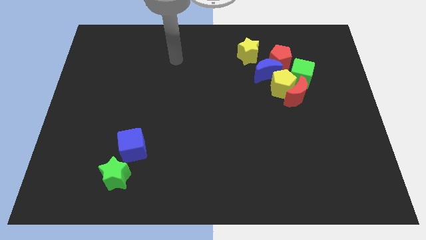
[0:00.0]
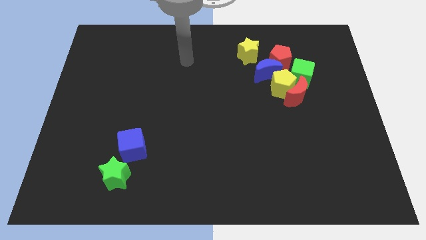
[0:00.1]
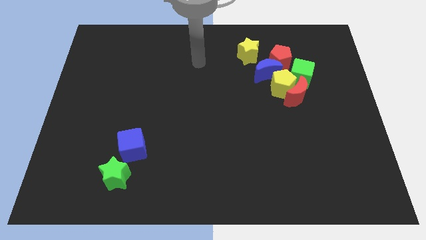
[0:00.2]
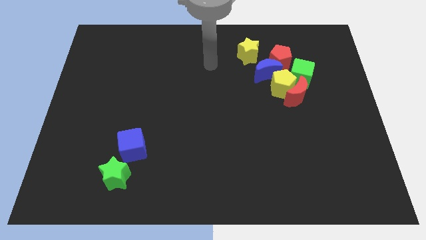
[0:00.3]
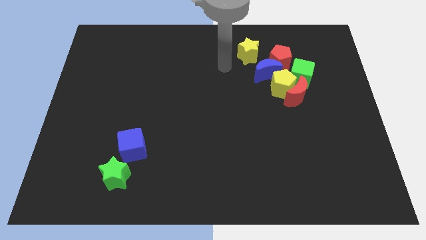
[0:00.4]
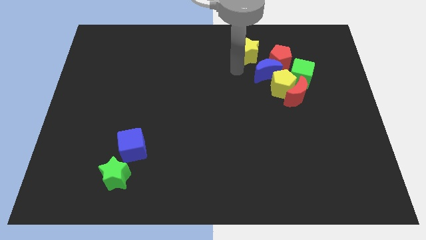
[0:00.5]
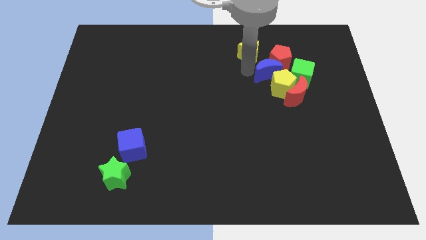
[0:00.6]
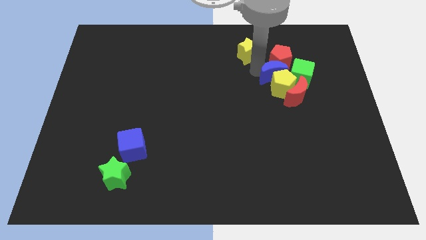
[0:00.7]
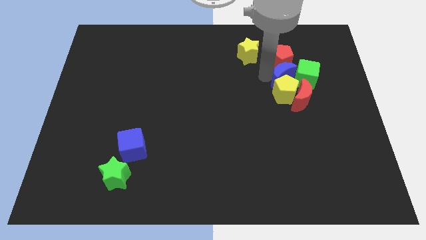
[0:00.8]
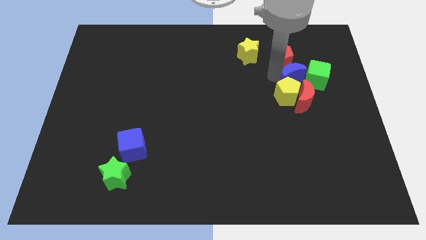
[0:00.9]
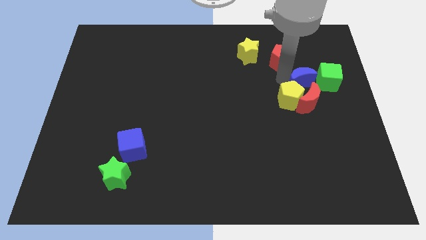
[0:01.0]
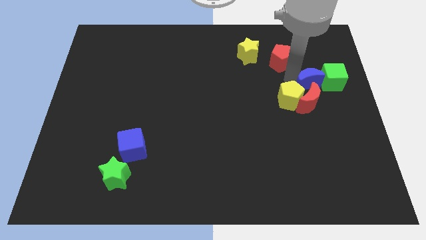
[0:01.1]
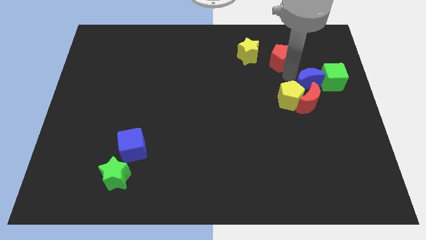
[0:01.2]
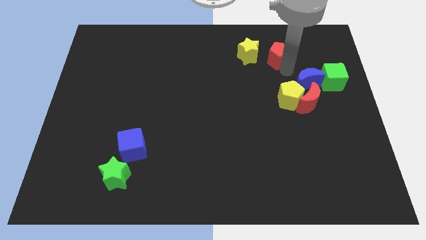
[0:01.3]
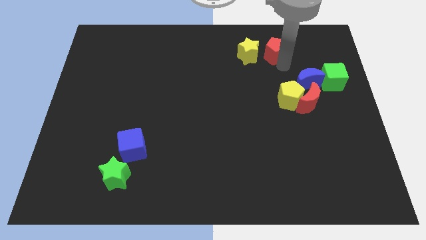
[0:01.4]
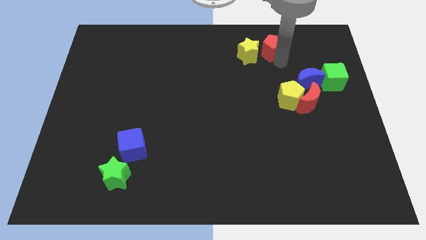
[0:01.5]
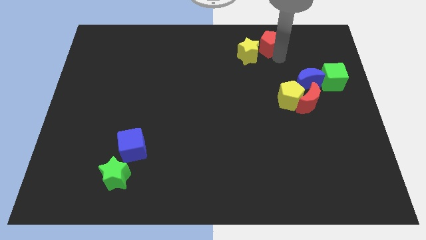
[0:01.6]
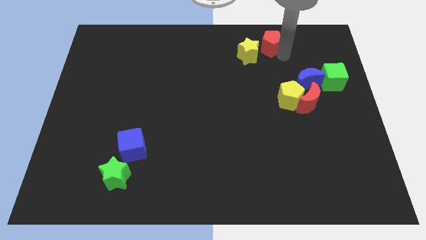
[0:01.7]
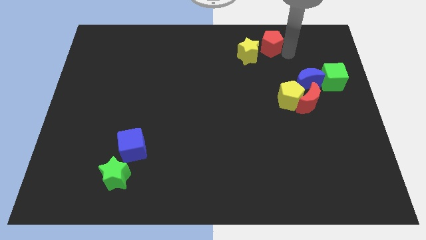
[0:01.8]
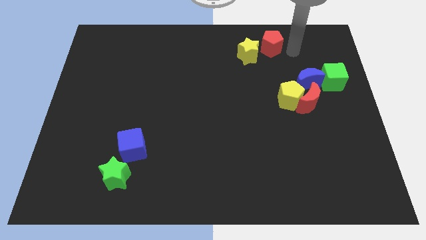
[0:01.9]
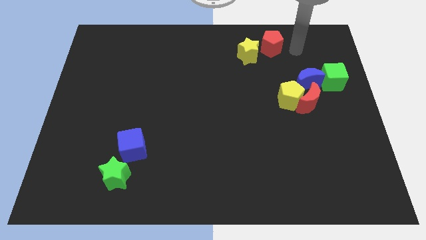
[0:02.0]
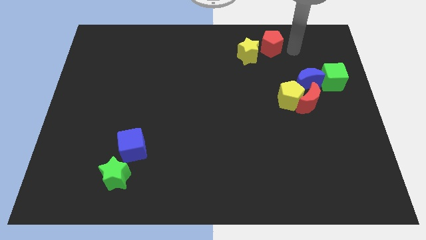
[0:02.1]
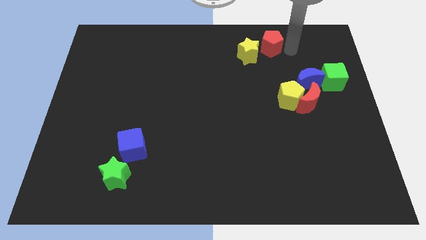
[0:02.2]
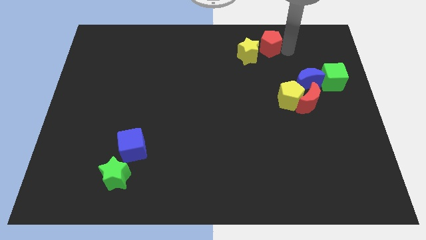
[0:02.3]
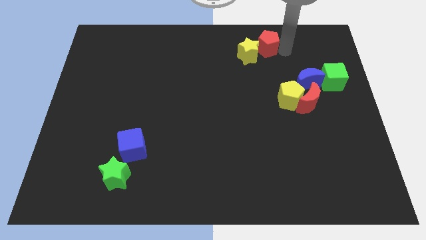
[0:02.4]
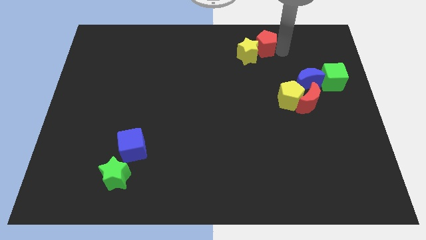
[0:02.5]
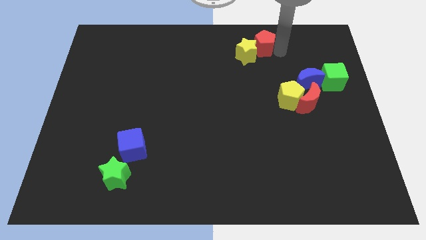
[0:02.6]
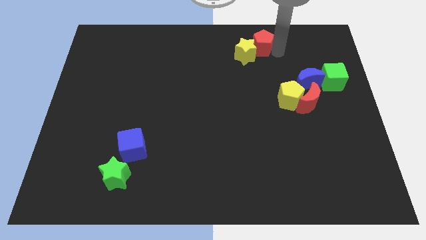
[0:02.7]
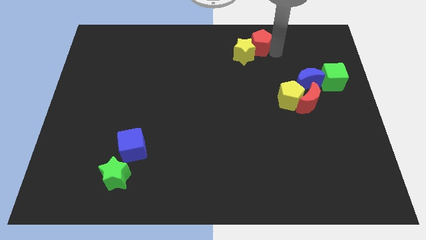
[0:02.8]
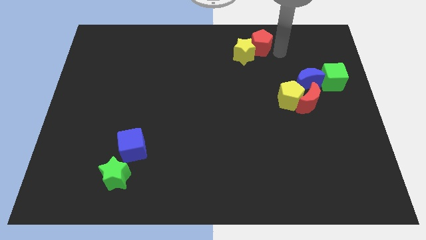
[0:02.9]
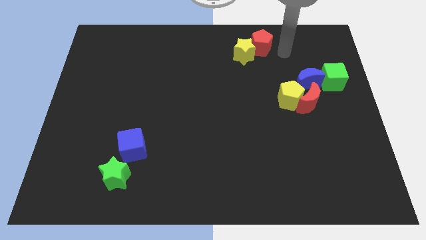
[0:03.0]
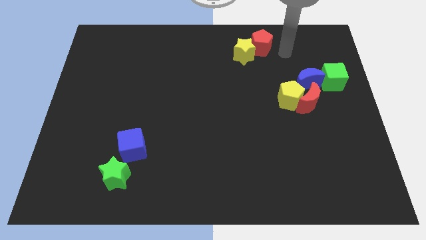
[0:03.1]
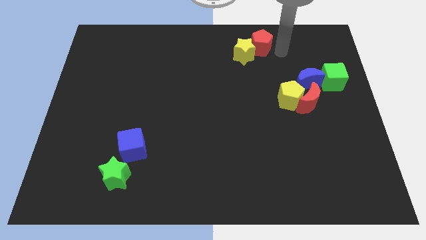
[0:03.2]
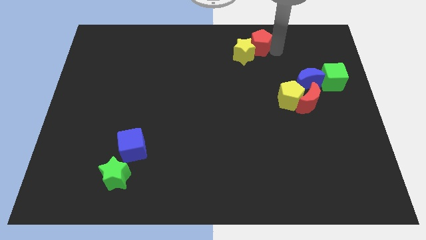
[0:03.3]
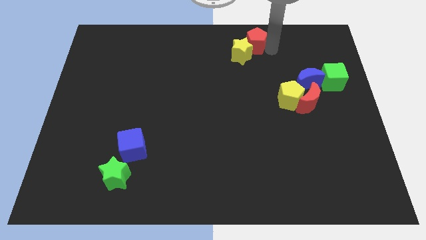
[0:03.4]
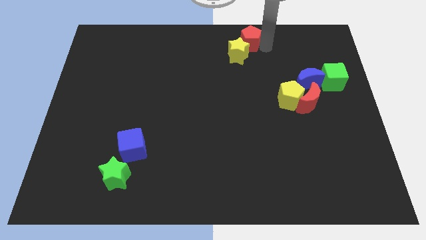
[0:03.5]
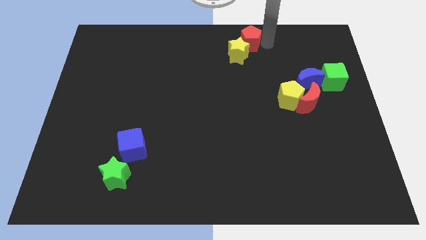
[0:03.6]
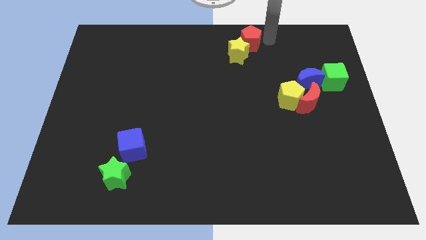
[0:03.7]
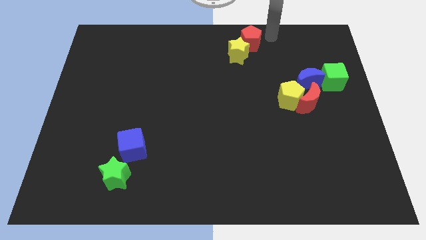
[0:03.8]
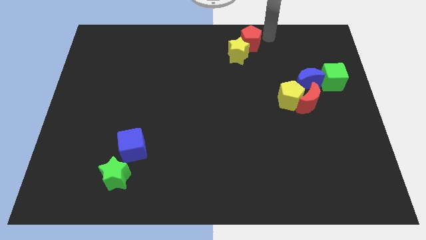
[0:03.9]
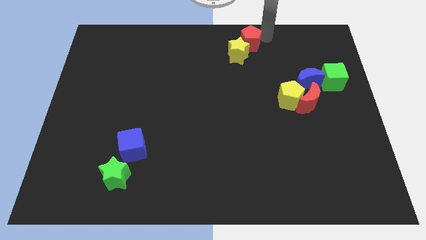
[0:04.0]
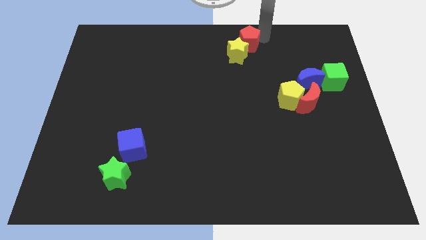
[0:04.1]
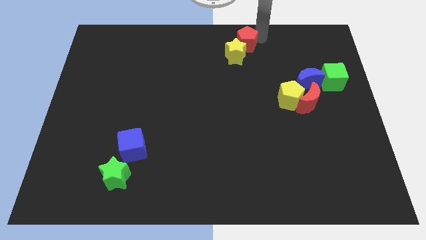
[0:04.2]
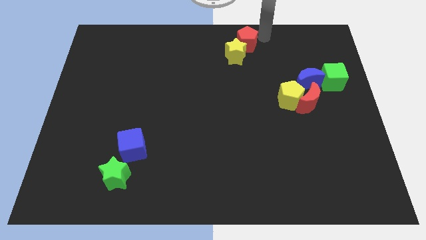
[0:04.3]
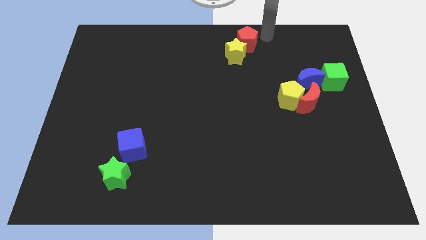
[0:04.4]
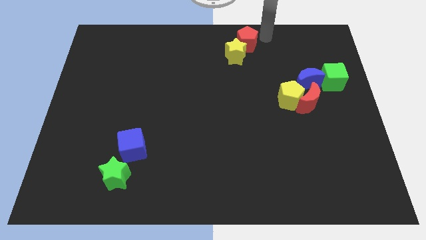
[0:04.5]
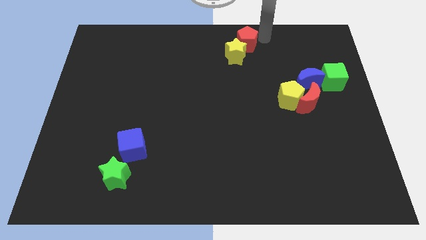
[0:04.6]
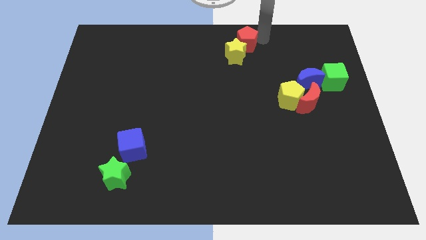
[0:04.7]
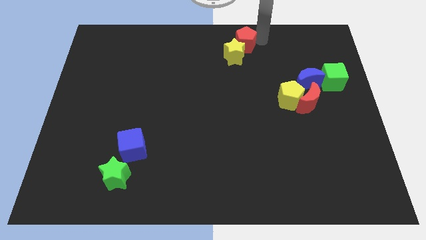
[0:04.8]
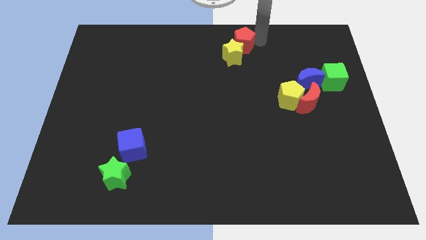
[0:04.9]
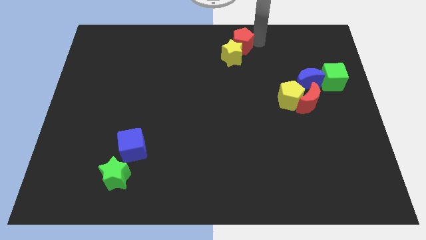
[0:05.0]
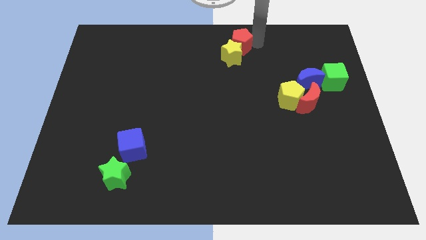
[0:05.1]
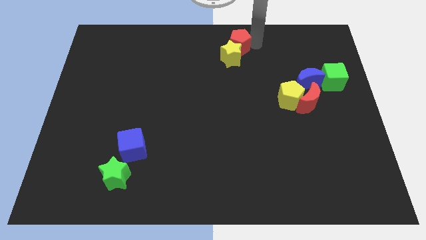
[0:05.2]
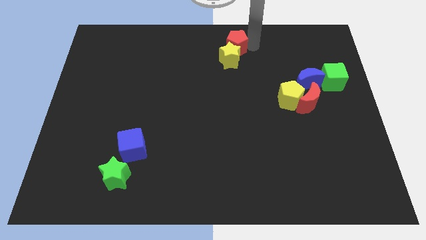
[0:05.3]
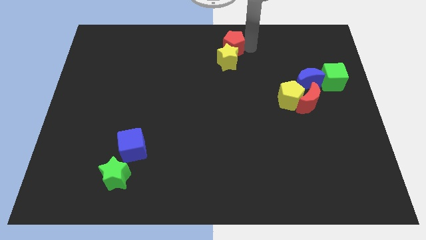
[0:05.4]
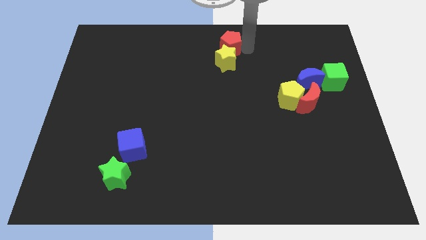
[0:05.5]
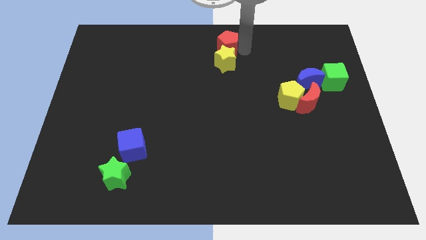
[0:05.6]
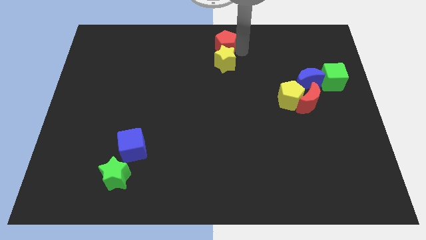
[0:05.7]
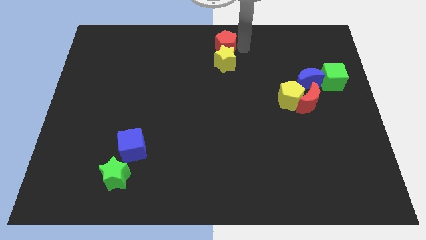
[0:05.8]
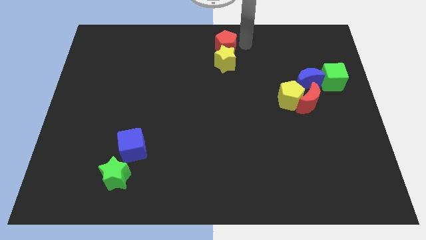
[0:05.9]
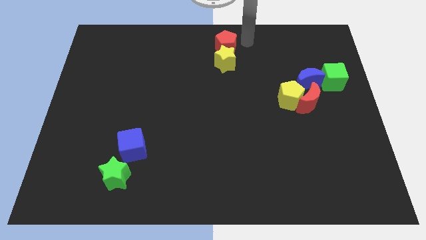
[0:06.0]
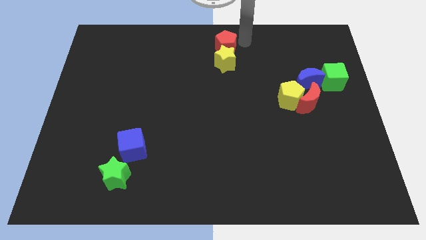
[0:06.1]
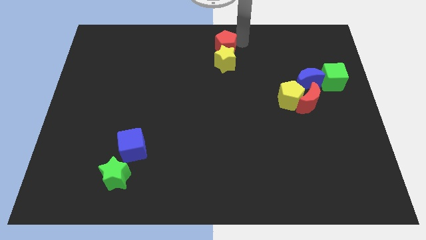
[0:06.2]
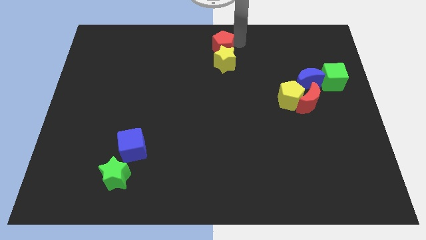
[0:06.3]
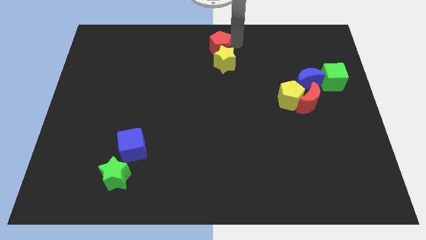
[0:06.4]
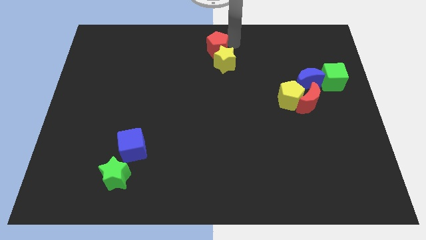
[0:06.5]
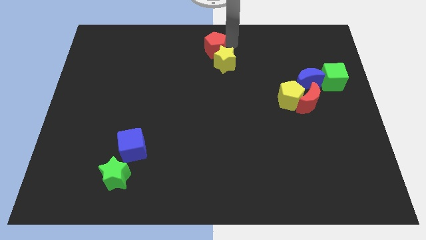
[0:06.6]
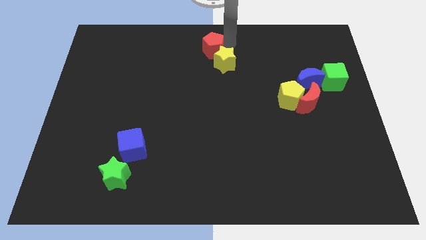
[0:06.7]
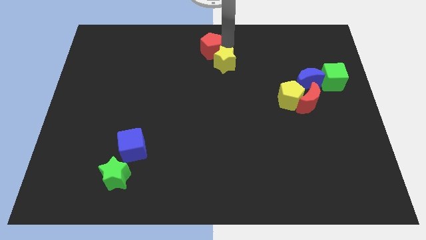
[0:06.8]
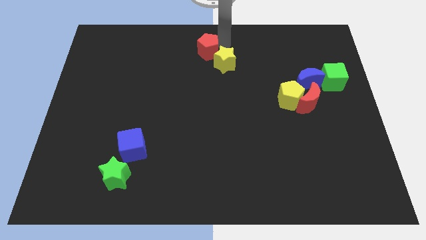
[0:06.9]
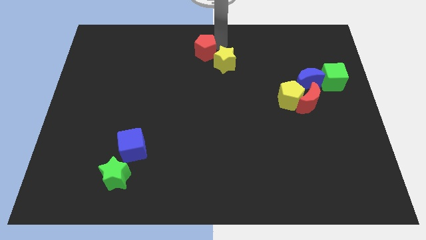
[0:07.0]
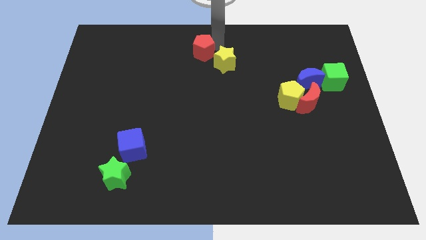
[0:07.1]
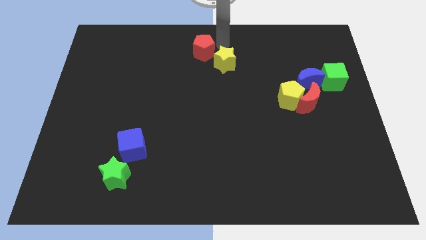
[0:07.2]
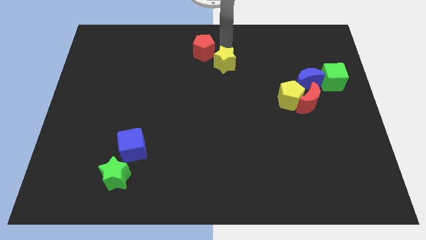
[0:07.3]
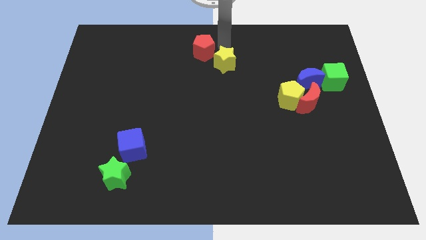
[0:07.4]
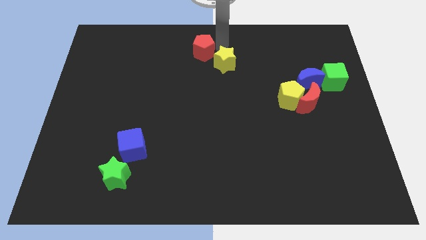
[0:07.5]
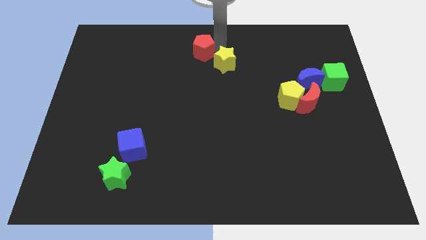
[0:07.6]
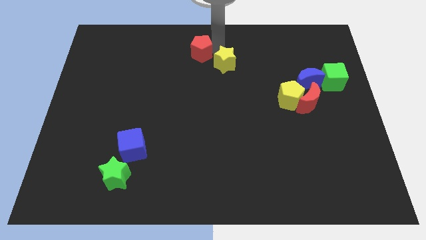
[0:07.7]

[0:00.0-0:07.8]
move the red pentagon left
